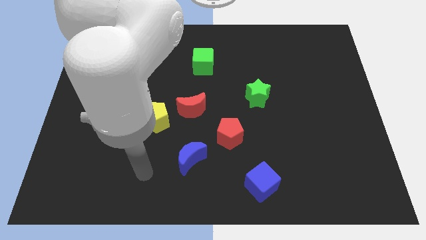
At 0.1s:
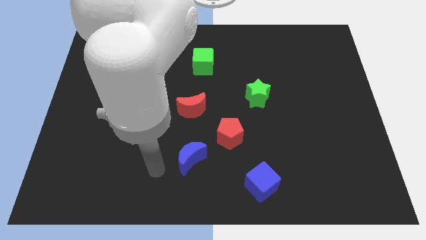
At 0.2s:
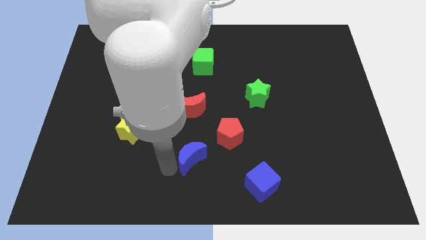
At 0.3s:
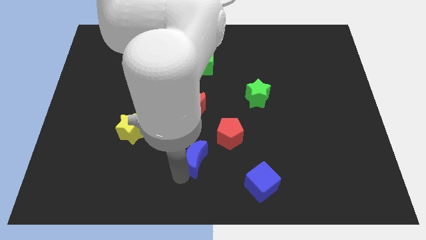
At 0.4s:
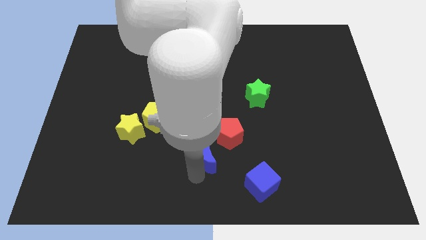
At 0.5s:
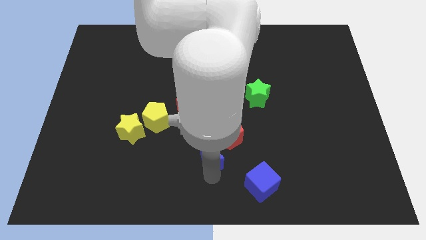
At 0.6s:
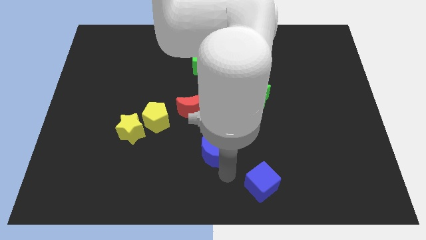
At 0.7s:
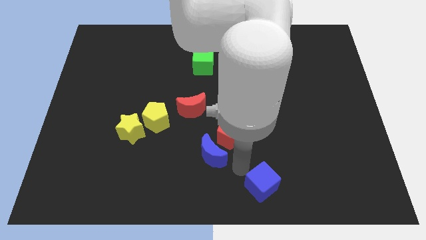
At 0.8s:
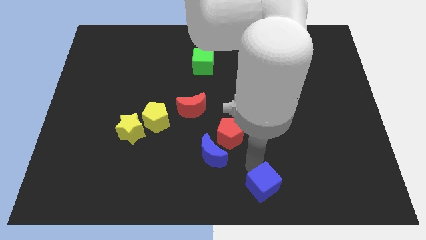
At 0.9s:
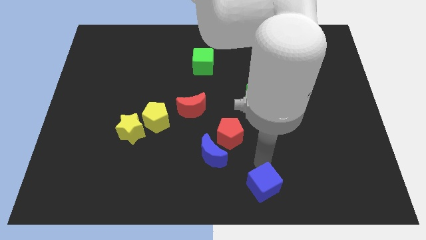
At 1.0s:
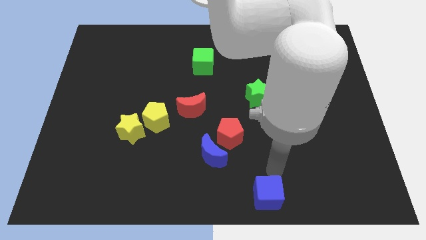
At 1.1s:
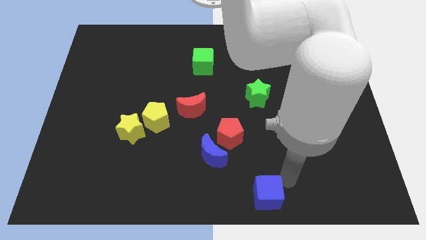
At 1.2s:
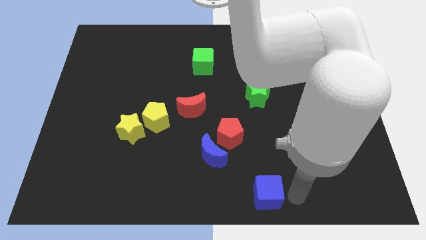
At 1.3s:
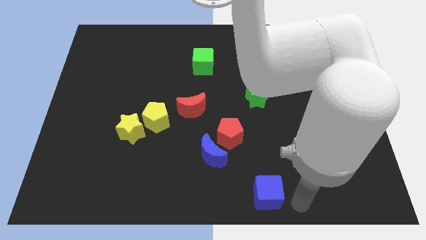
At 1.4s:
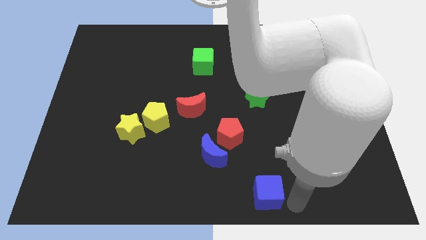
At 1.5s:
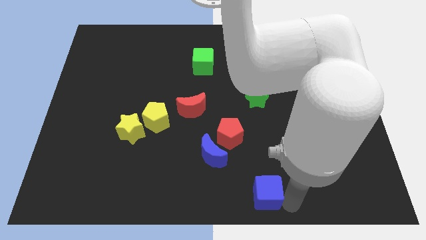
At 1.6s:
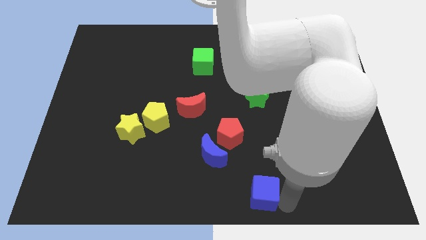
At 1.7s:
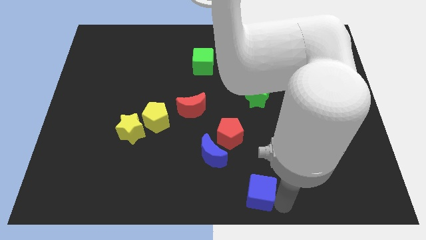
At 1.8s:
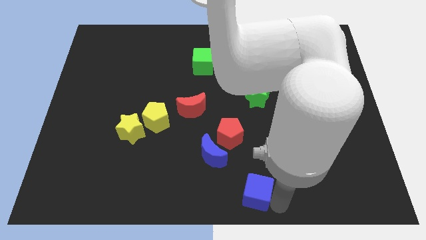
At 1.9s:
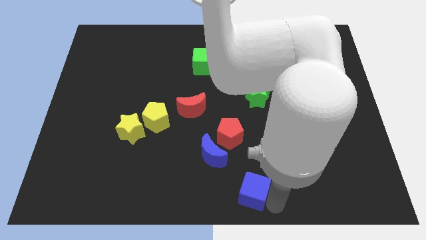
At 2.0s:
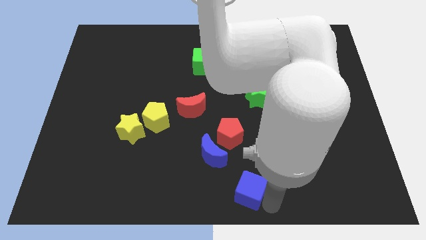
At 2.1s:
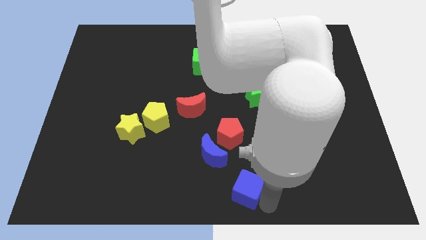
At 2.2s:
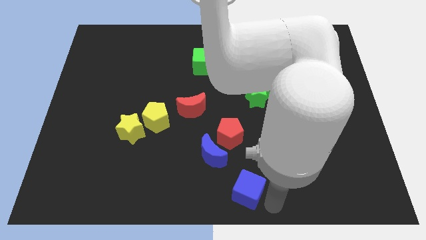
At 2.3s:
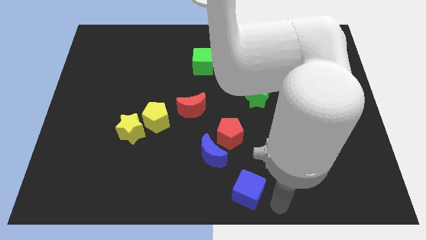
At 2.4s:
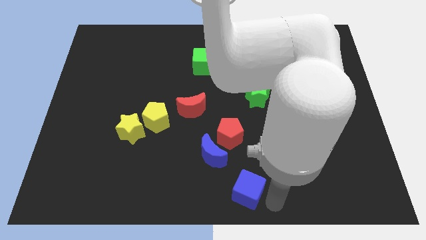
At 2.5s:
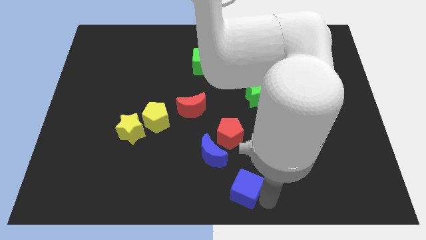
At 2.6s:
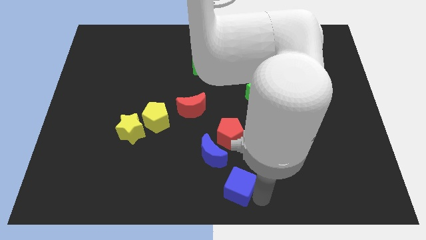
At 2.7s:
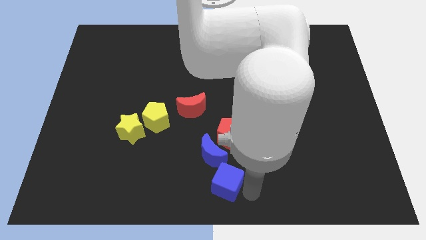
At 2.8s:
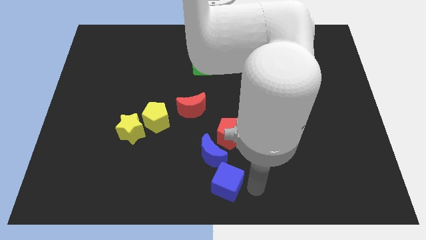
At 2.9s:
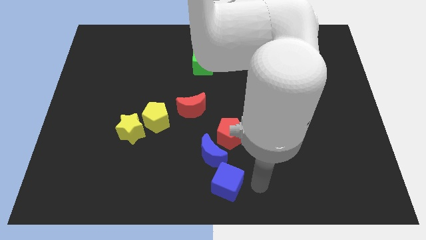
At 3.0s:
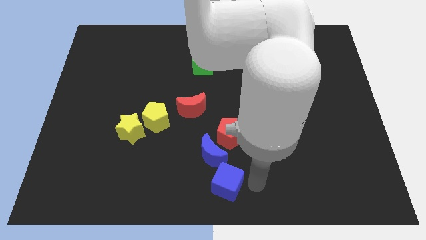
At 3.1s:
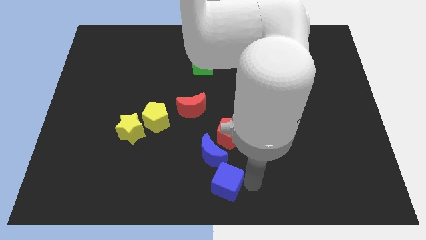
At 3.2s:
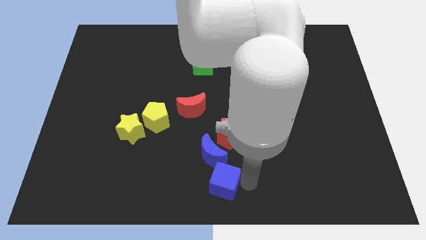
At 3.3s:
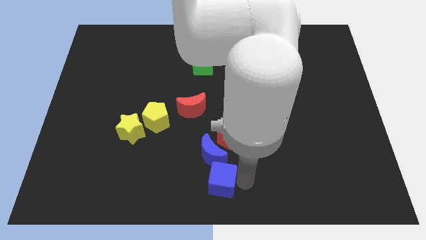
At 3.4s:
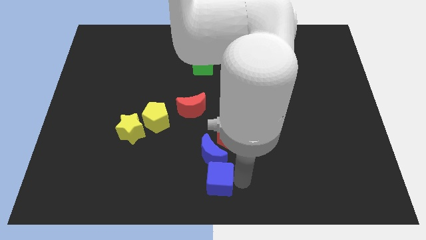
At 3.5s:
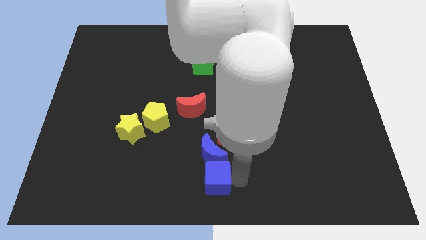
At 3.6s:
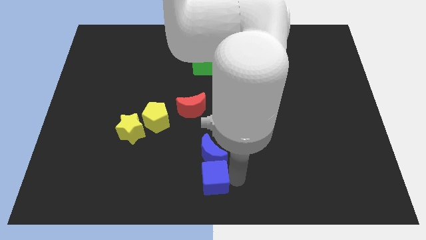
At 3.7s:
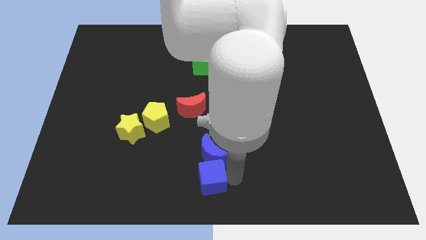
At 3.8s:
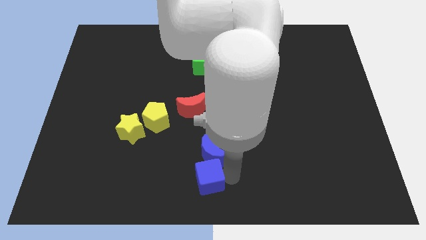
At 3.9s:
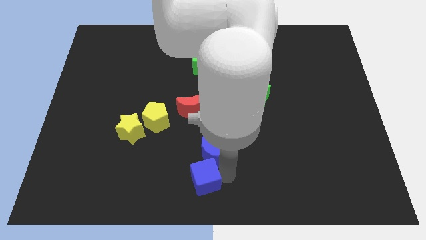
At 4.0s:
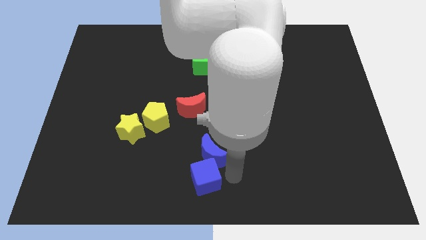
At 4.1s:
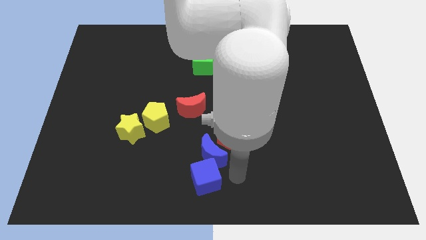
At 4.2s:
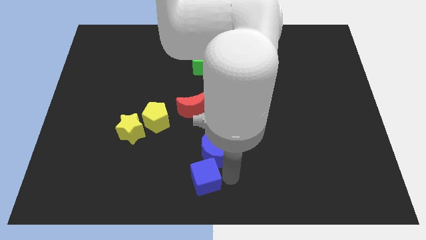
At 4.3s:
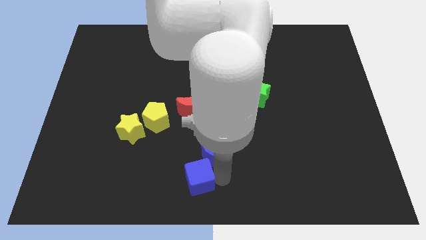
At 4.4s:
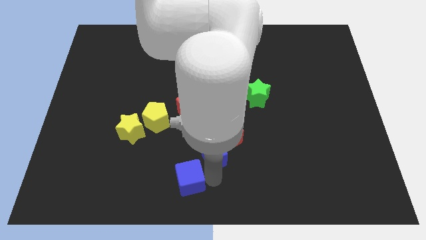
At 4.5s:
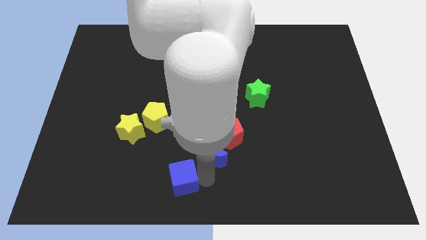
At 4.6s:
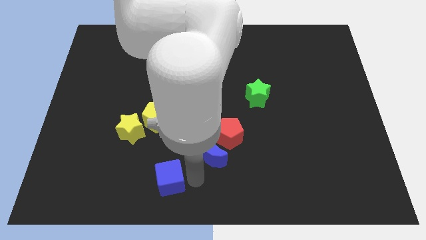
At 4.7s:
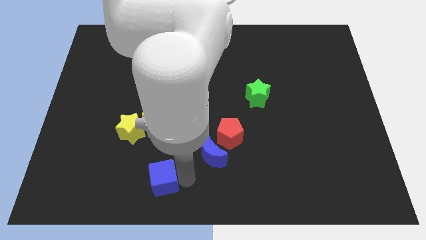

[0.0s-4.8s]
move the blue cube left

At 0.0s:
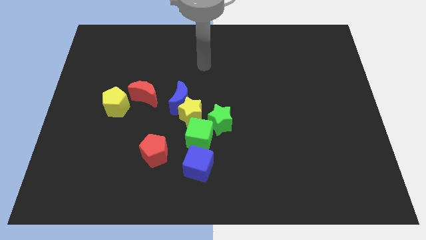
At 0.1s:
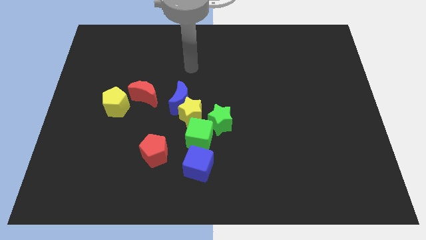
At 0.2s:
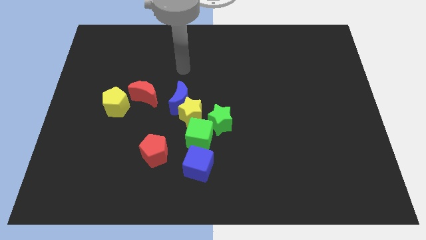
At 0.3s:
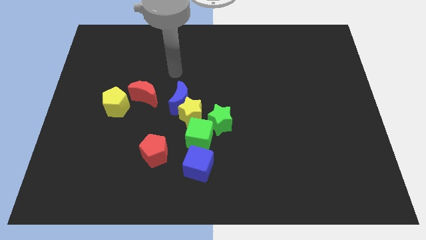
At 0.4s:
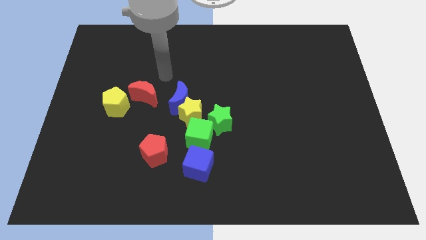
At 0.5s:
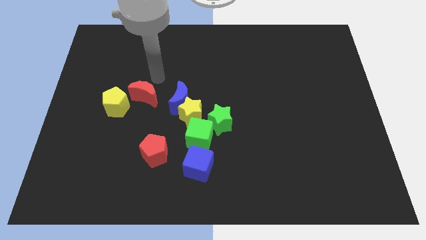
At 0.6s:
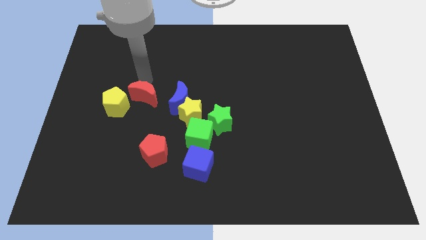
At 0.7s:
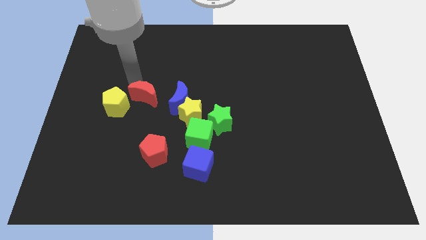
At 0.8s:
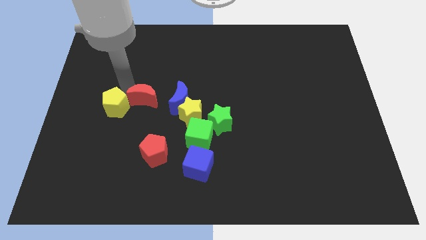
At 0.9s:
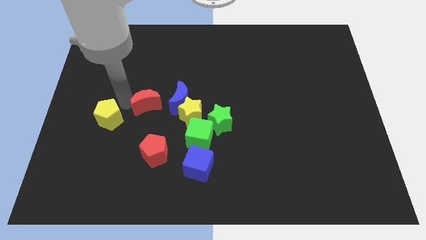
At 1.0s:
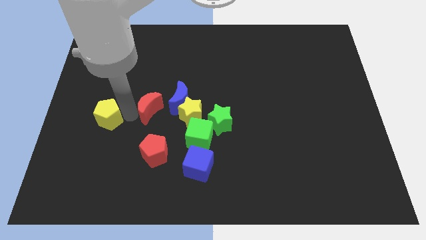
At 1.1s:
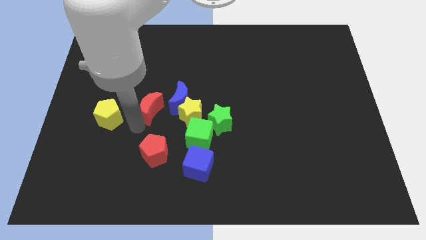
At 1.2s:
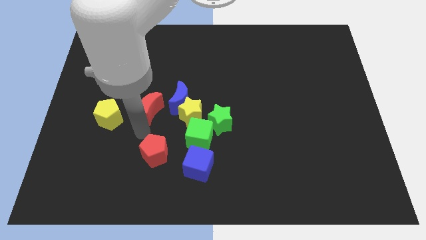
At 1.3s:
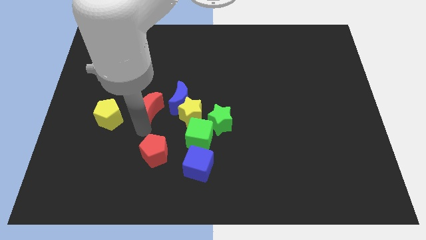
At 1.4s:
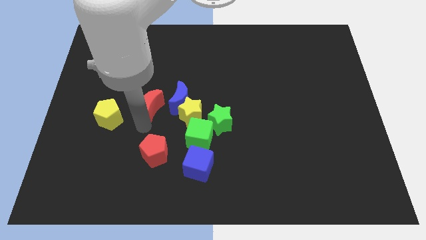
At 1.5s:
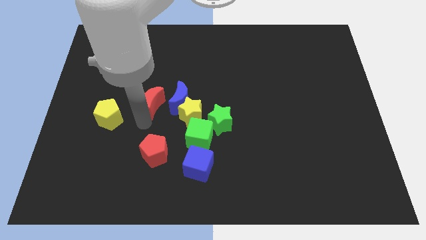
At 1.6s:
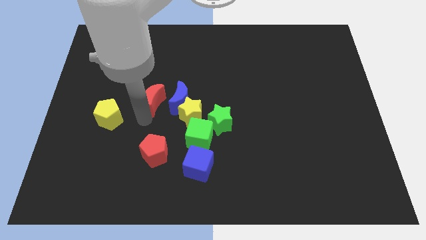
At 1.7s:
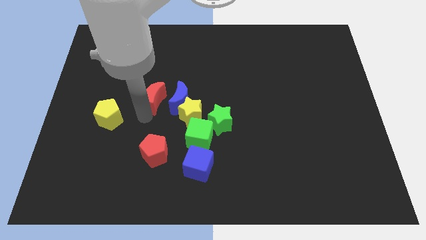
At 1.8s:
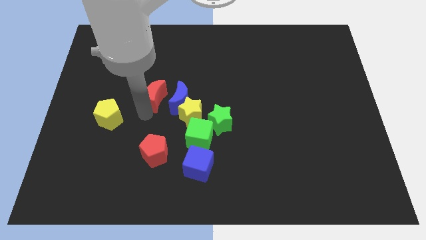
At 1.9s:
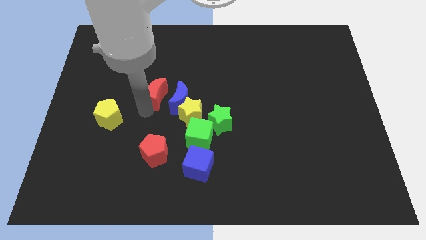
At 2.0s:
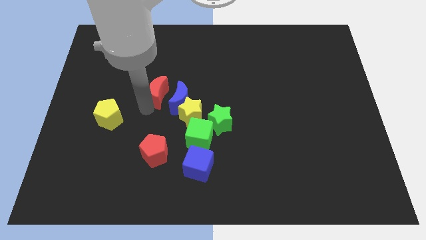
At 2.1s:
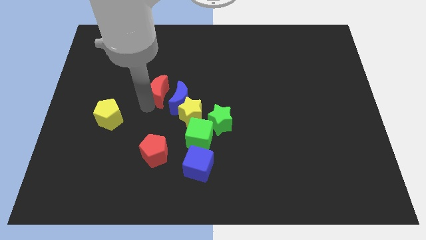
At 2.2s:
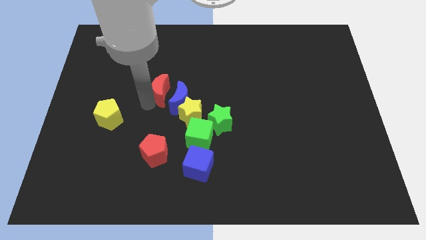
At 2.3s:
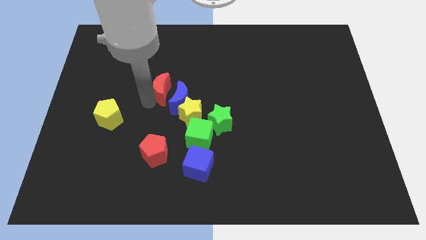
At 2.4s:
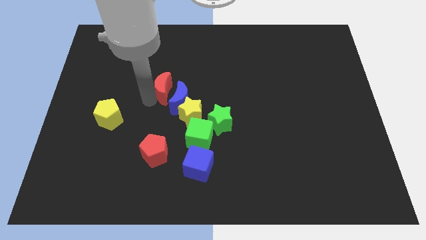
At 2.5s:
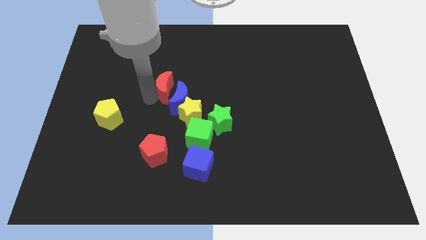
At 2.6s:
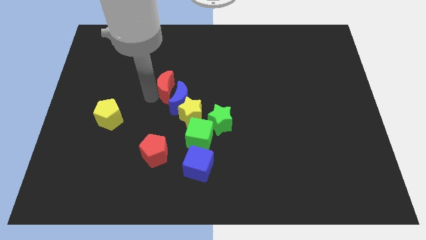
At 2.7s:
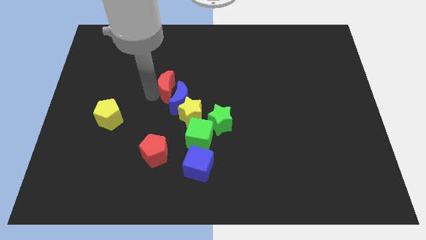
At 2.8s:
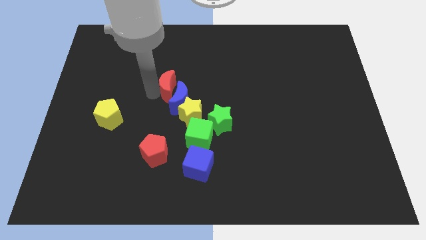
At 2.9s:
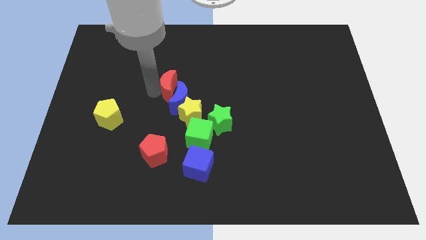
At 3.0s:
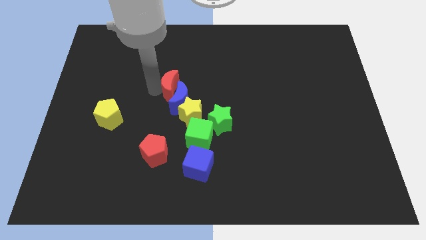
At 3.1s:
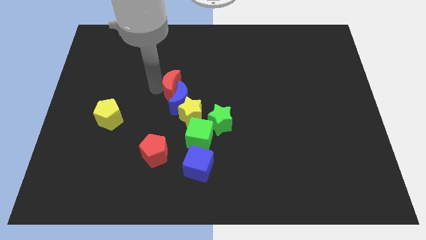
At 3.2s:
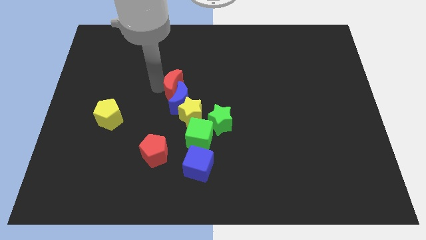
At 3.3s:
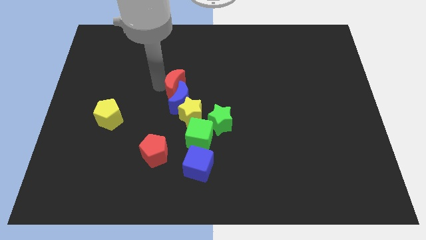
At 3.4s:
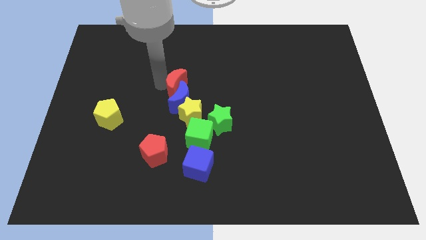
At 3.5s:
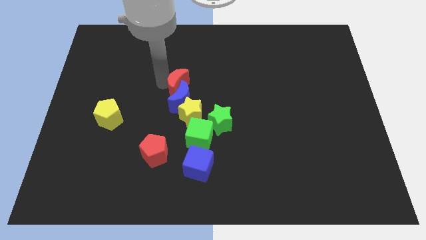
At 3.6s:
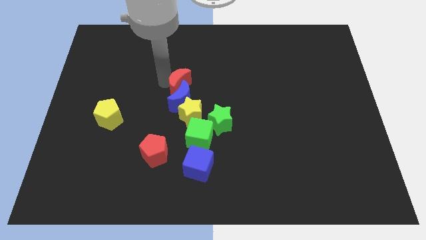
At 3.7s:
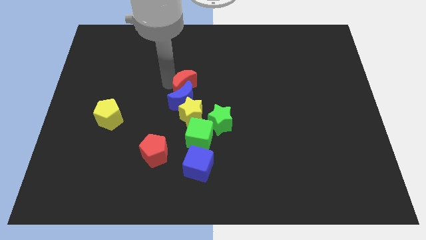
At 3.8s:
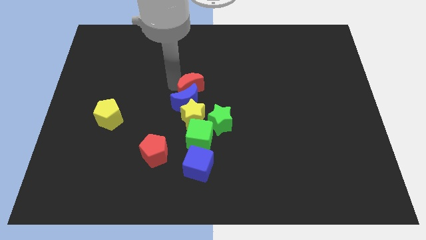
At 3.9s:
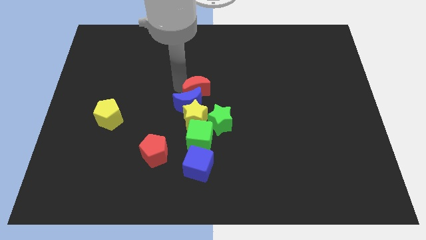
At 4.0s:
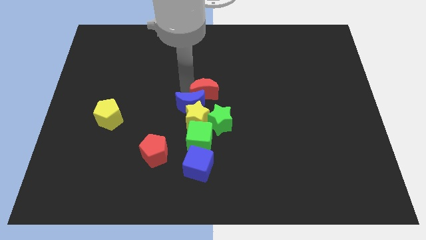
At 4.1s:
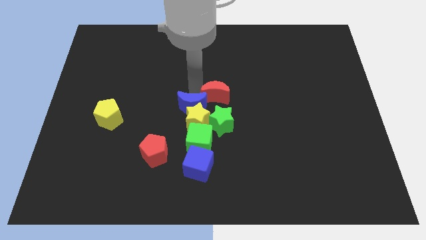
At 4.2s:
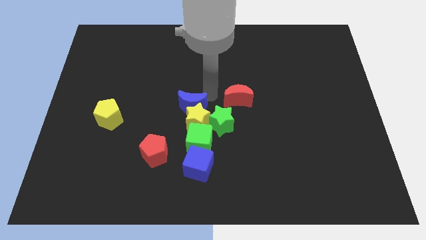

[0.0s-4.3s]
push the red moon to the right
